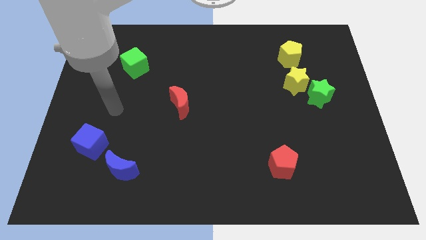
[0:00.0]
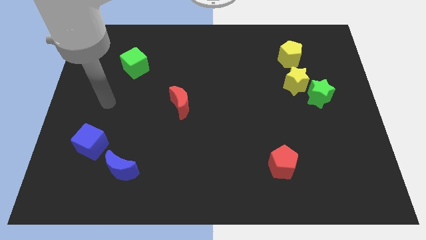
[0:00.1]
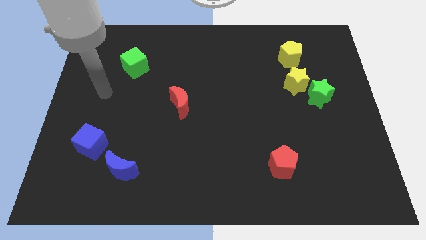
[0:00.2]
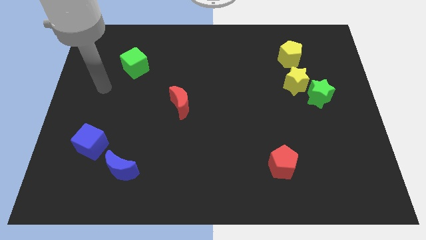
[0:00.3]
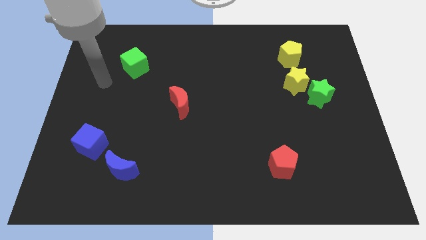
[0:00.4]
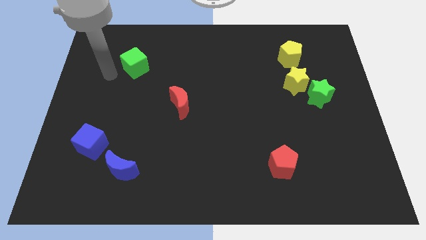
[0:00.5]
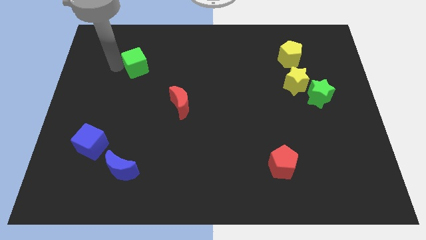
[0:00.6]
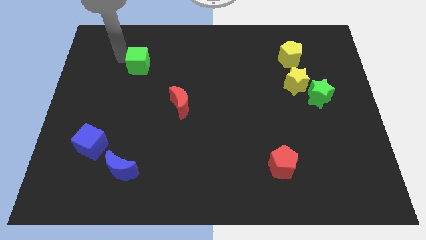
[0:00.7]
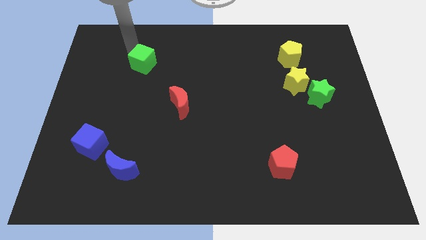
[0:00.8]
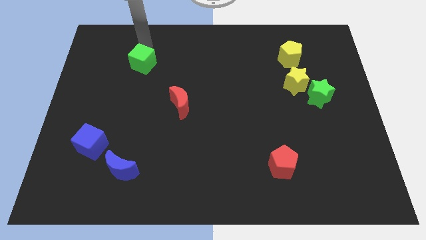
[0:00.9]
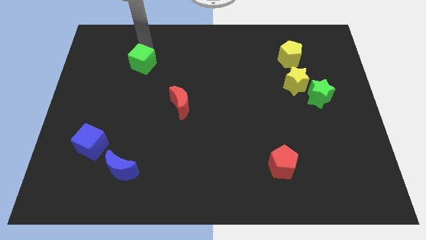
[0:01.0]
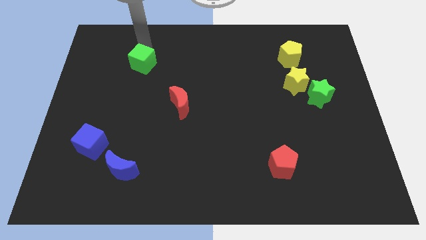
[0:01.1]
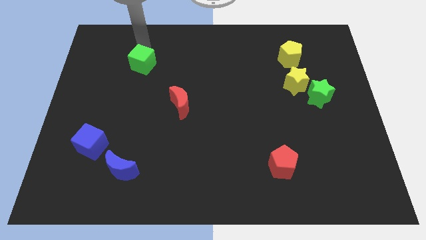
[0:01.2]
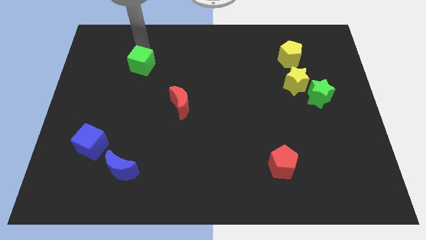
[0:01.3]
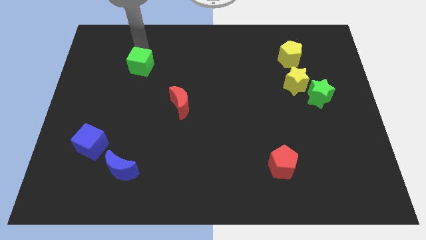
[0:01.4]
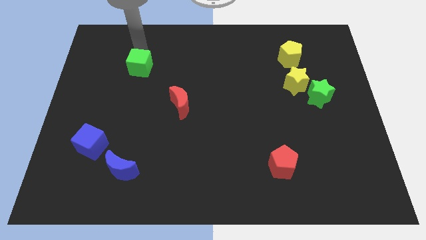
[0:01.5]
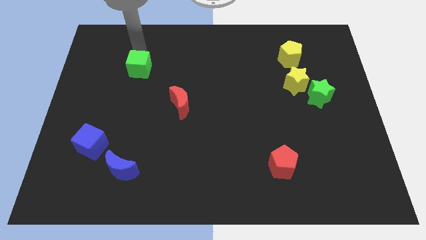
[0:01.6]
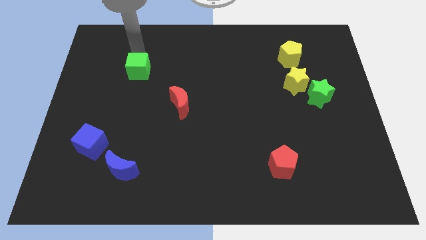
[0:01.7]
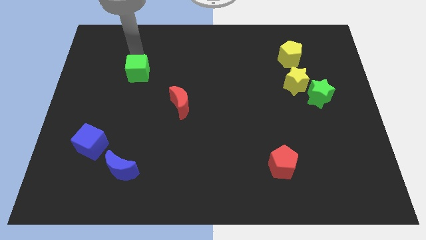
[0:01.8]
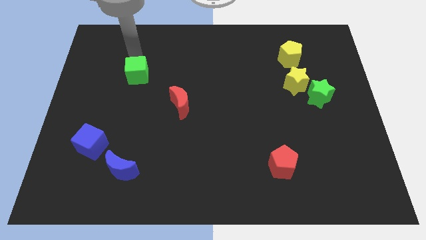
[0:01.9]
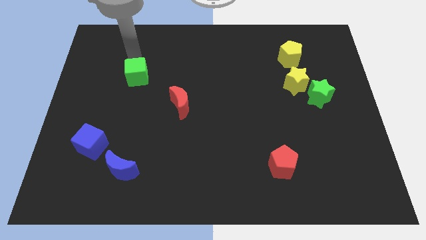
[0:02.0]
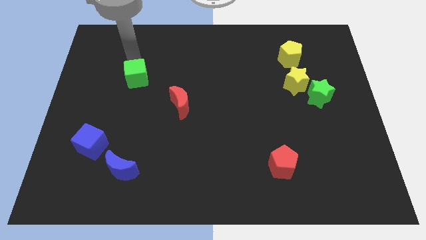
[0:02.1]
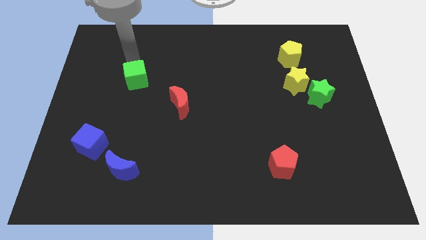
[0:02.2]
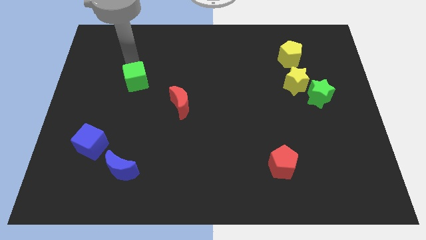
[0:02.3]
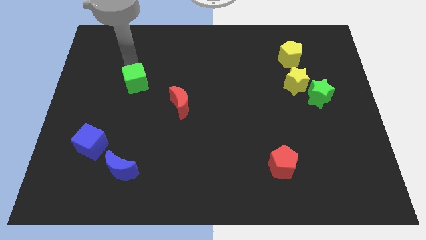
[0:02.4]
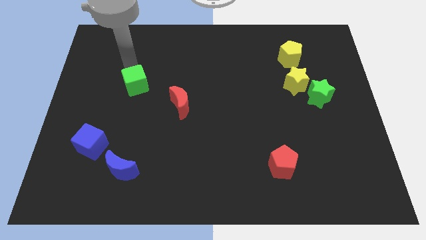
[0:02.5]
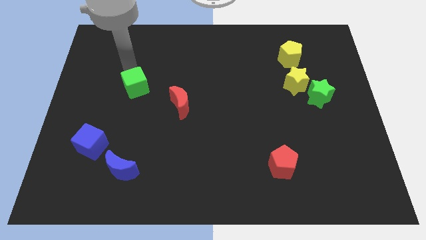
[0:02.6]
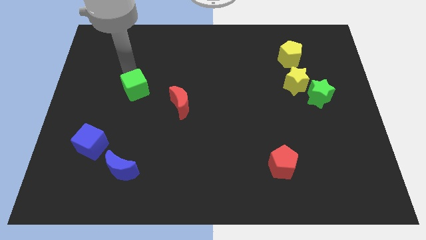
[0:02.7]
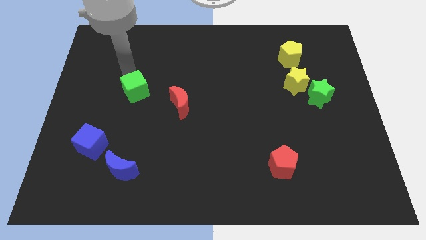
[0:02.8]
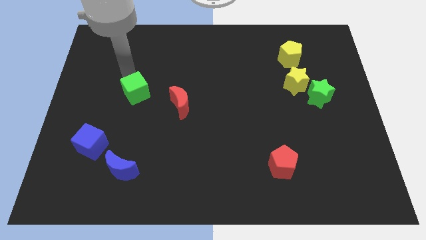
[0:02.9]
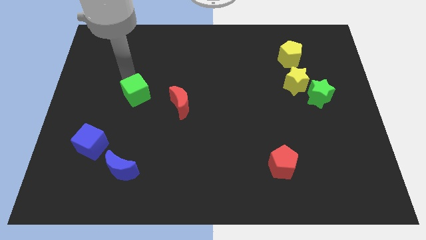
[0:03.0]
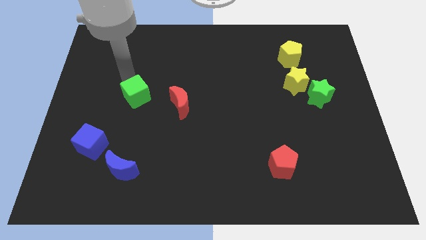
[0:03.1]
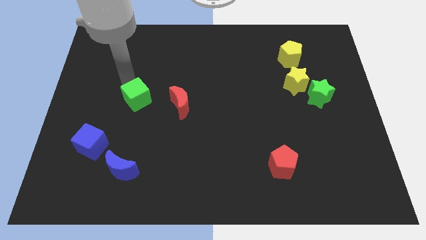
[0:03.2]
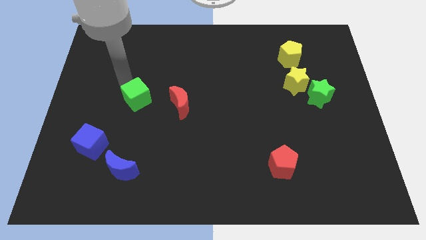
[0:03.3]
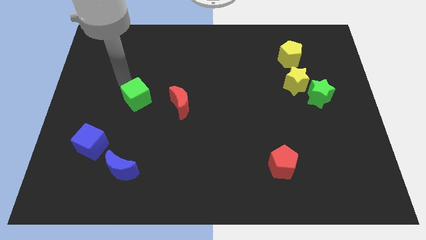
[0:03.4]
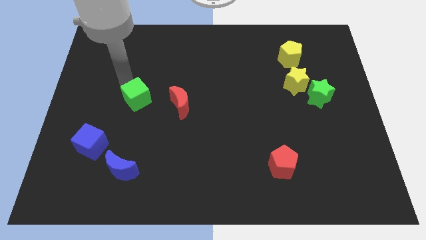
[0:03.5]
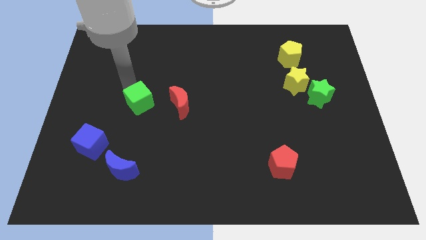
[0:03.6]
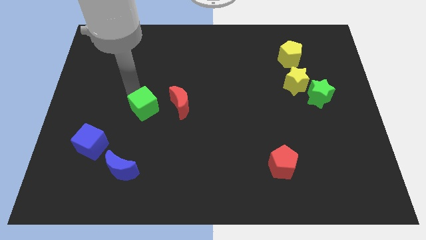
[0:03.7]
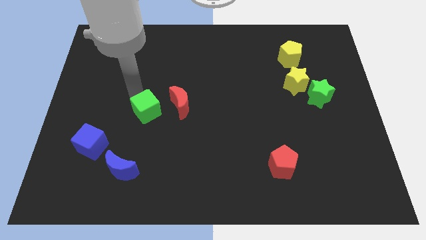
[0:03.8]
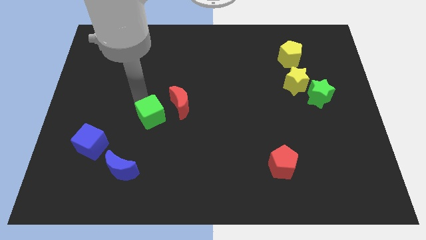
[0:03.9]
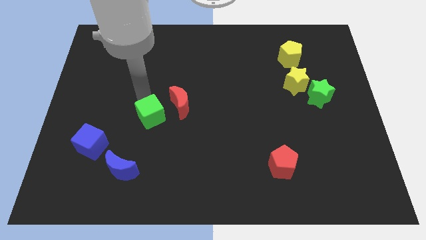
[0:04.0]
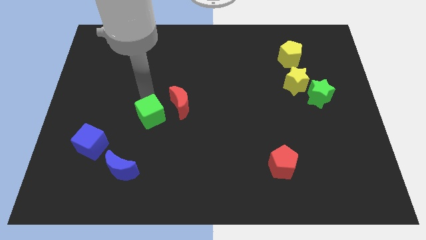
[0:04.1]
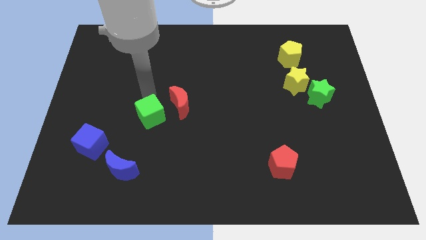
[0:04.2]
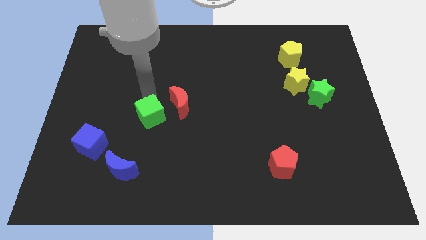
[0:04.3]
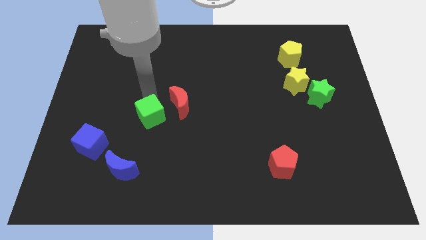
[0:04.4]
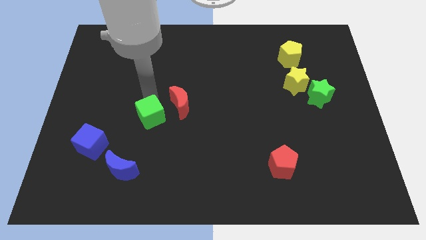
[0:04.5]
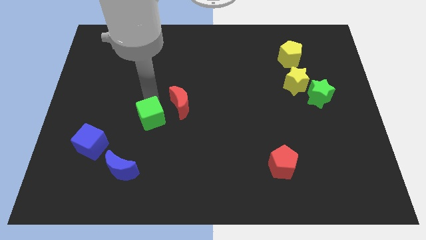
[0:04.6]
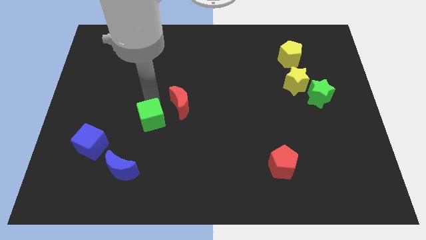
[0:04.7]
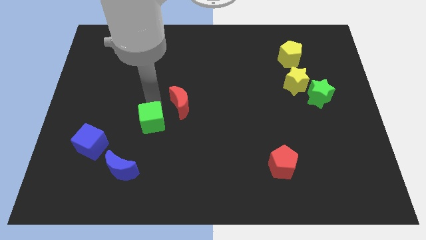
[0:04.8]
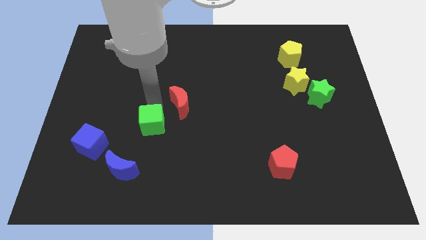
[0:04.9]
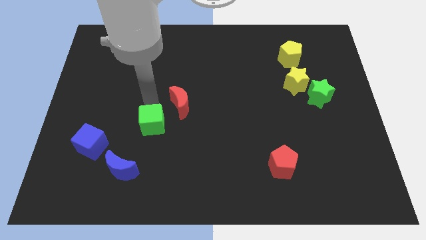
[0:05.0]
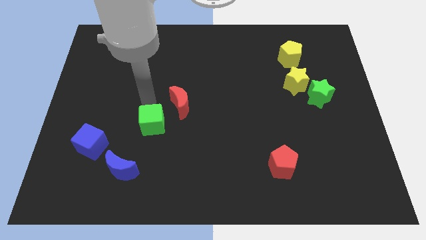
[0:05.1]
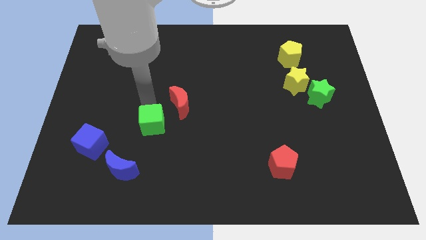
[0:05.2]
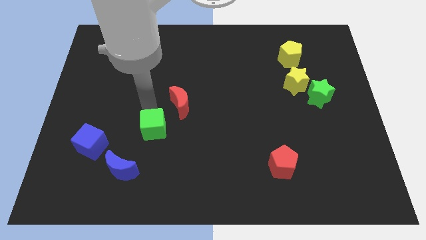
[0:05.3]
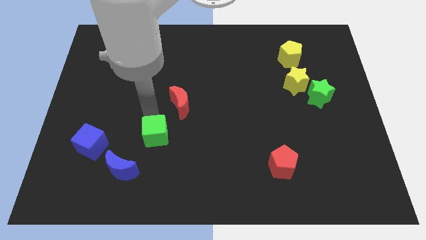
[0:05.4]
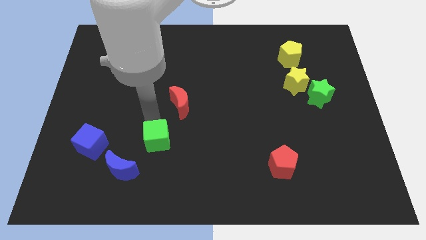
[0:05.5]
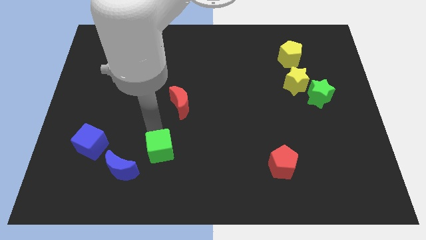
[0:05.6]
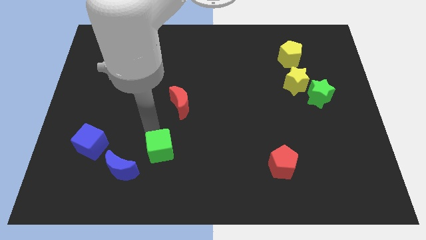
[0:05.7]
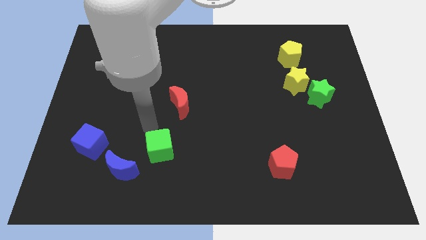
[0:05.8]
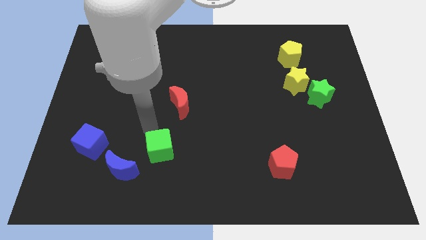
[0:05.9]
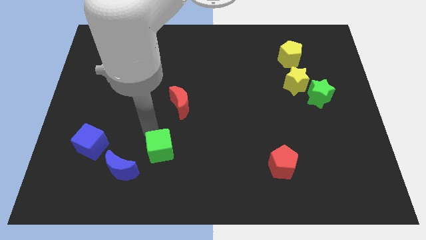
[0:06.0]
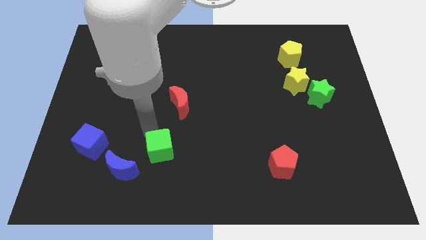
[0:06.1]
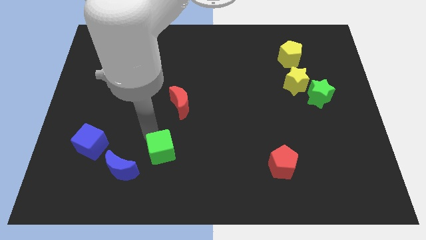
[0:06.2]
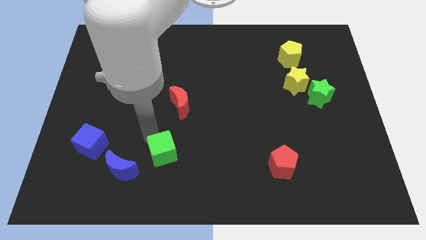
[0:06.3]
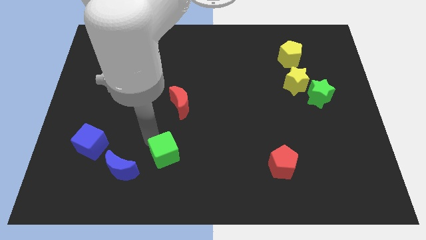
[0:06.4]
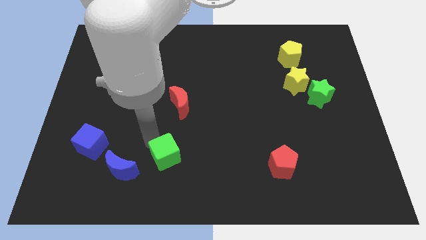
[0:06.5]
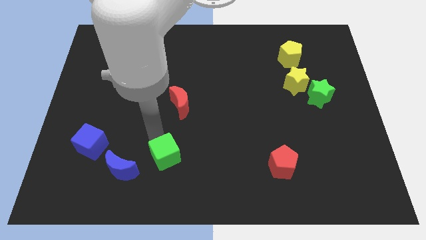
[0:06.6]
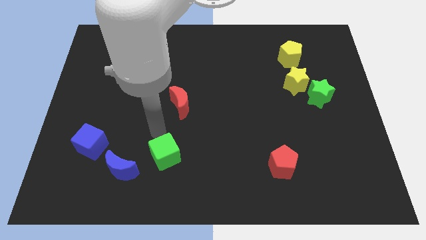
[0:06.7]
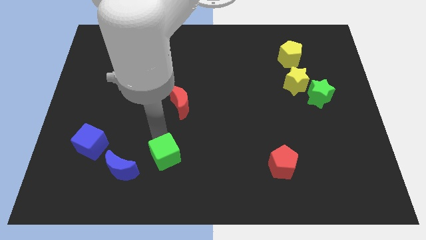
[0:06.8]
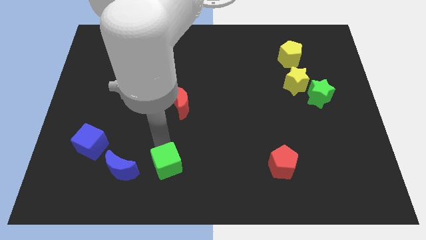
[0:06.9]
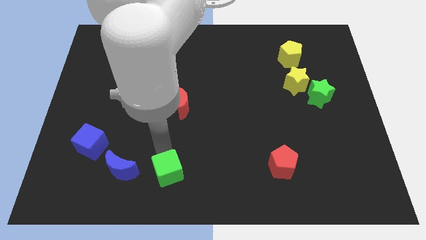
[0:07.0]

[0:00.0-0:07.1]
move the green cube to the bottom side
